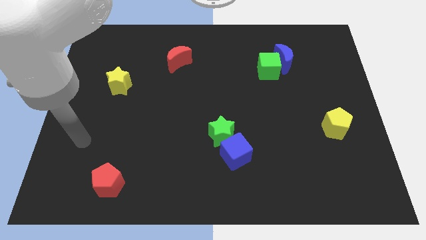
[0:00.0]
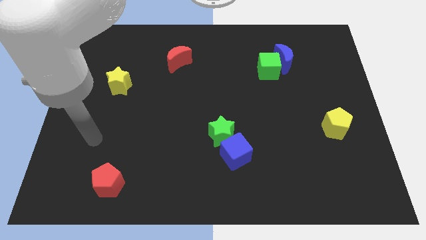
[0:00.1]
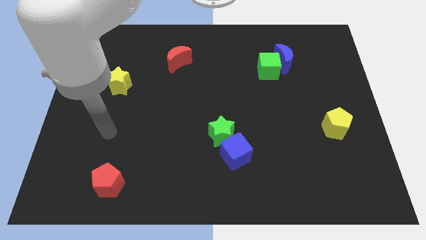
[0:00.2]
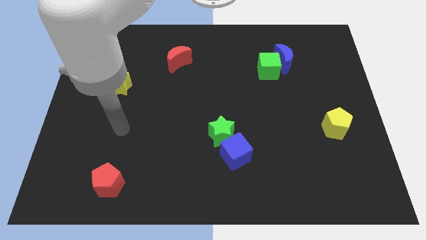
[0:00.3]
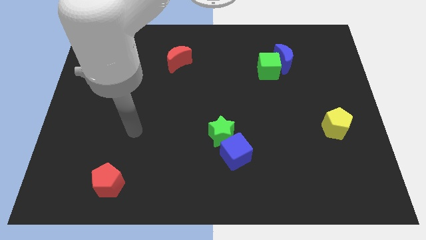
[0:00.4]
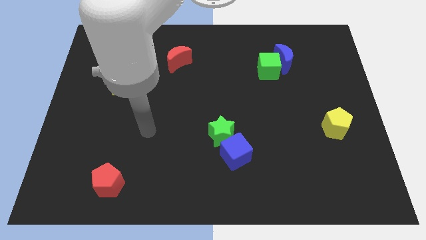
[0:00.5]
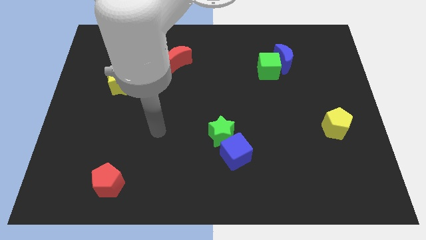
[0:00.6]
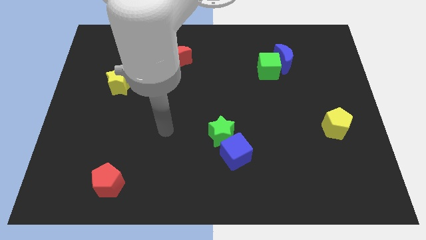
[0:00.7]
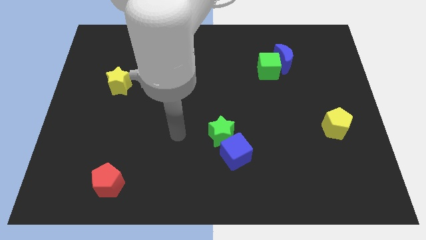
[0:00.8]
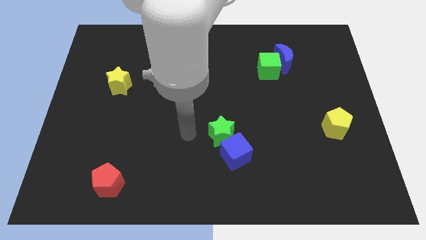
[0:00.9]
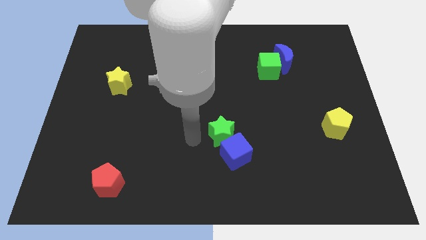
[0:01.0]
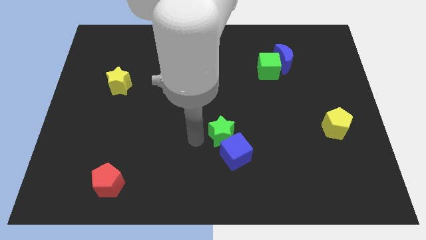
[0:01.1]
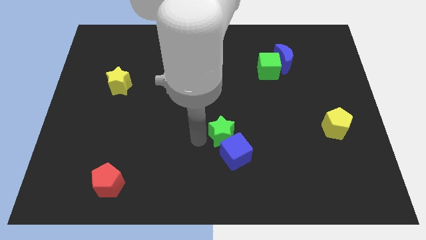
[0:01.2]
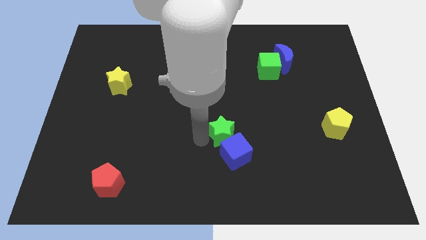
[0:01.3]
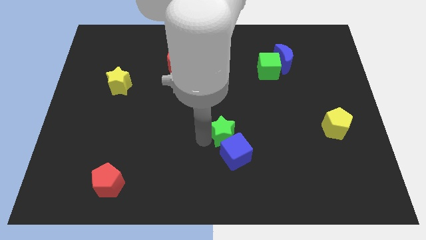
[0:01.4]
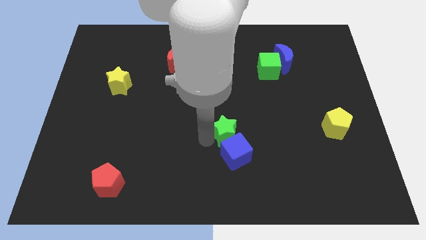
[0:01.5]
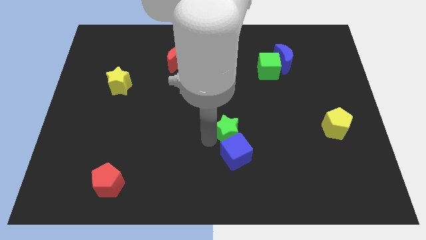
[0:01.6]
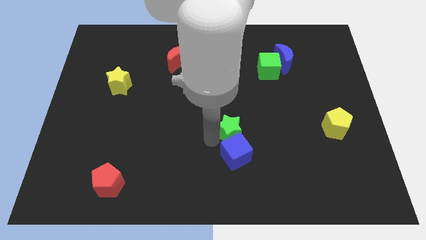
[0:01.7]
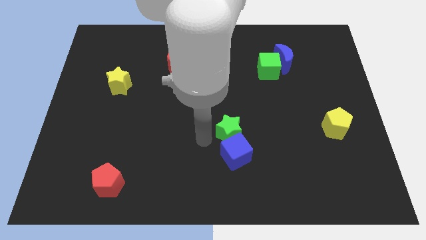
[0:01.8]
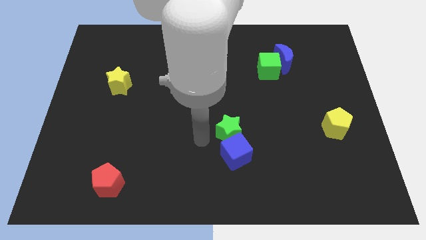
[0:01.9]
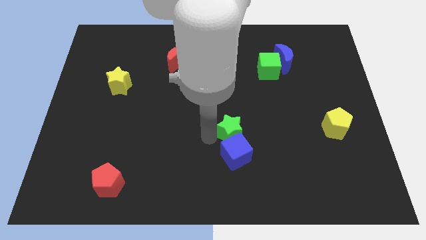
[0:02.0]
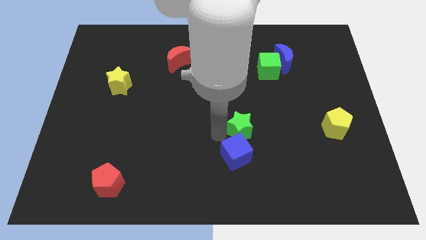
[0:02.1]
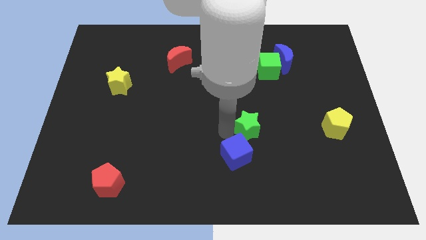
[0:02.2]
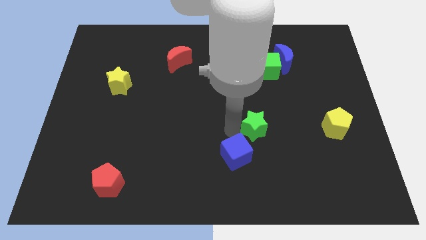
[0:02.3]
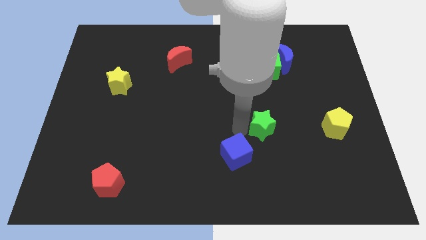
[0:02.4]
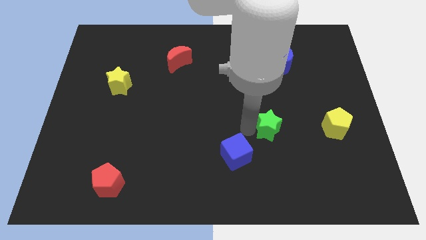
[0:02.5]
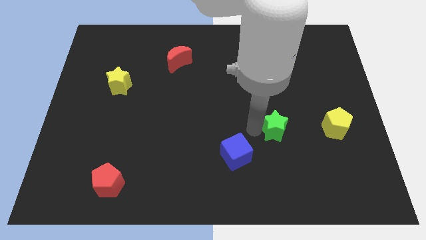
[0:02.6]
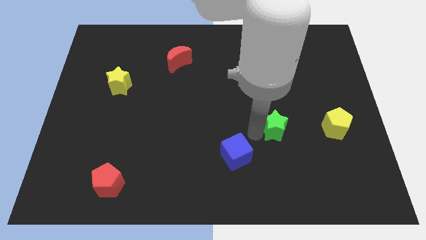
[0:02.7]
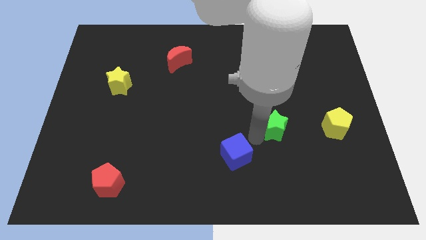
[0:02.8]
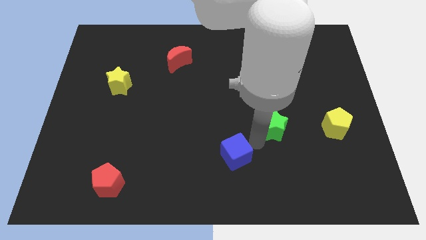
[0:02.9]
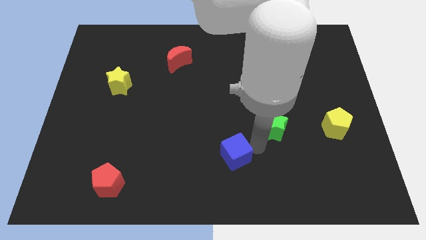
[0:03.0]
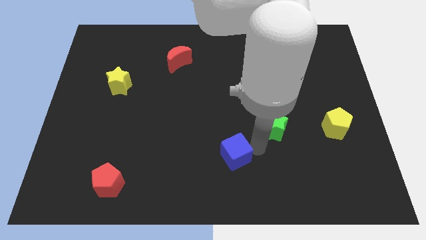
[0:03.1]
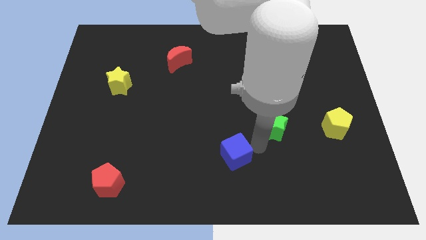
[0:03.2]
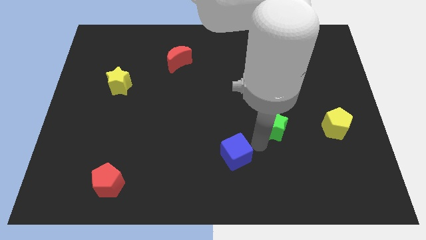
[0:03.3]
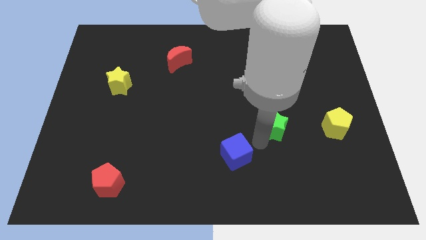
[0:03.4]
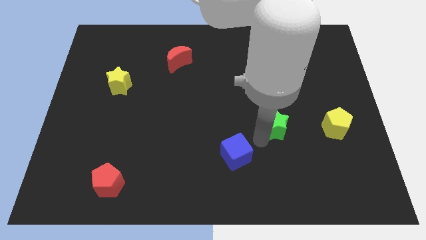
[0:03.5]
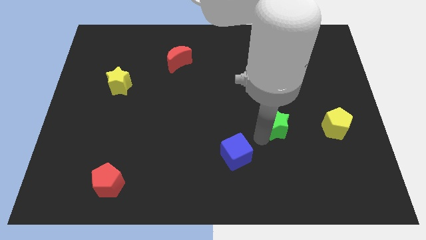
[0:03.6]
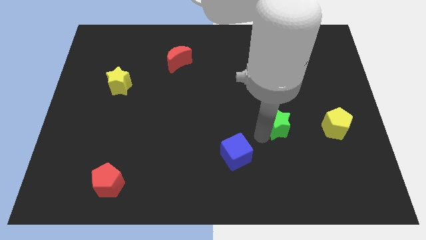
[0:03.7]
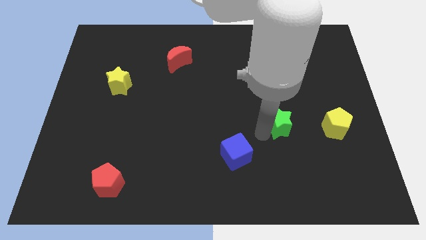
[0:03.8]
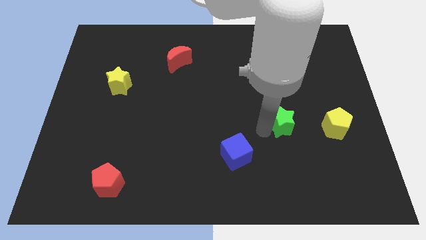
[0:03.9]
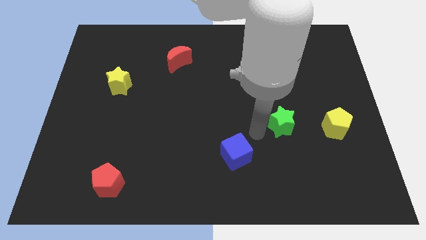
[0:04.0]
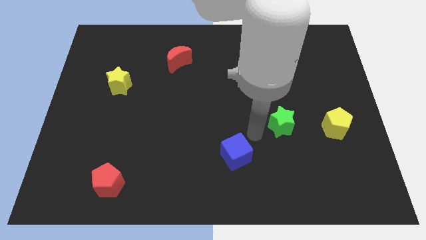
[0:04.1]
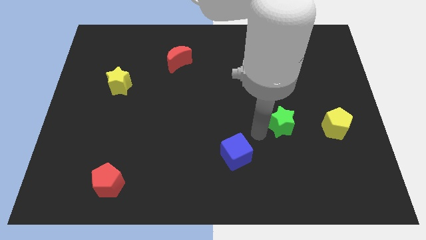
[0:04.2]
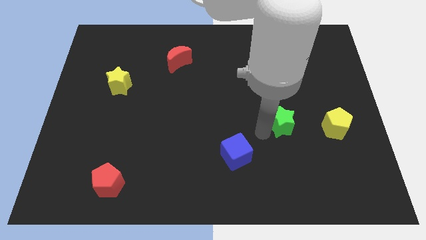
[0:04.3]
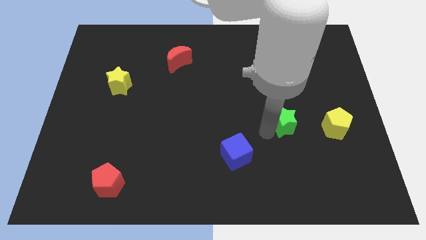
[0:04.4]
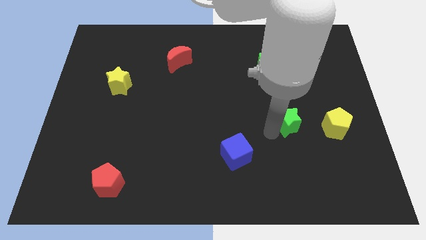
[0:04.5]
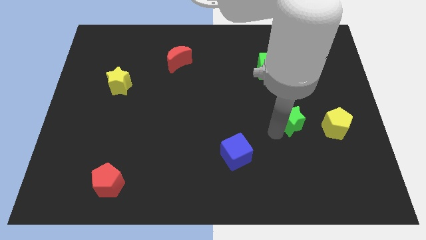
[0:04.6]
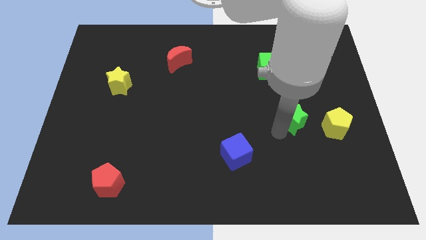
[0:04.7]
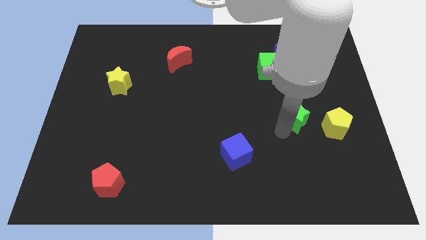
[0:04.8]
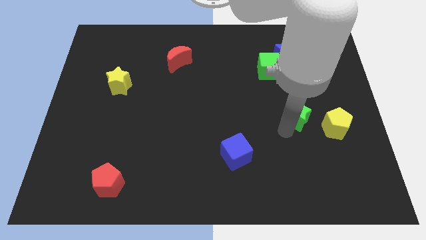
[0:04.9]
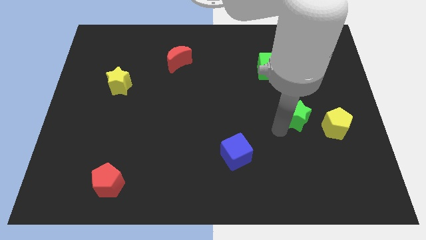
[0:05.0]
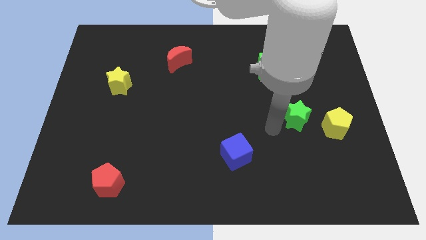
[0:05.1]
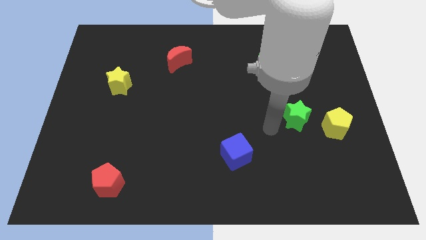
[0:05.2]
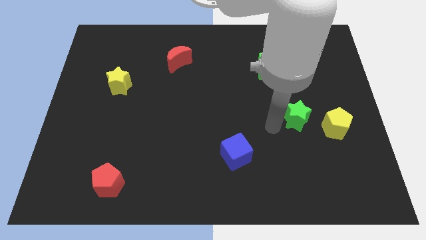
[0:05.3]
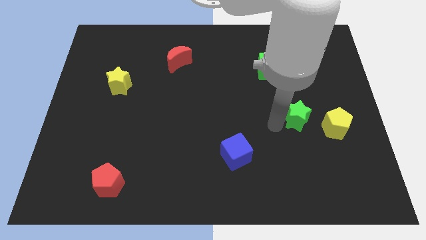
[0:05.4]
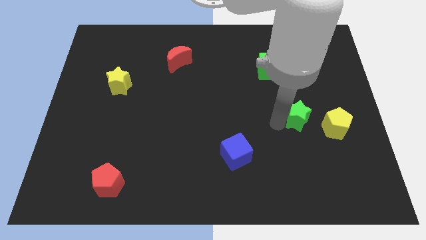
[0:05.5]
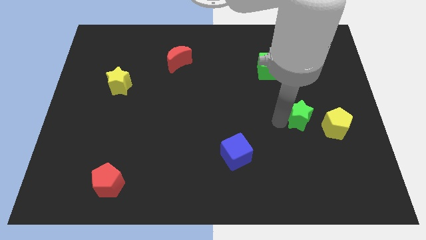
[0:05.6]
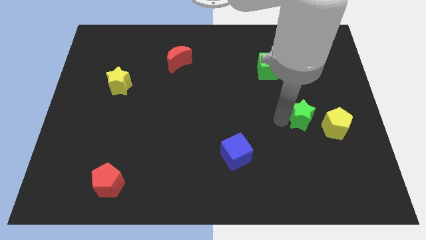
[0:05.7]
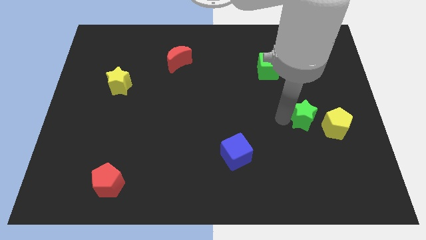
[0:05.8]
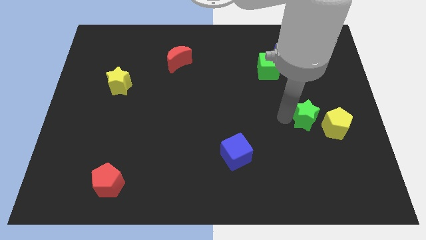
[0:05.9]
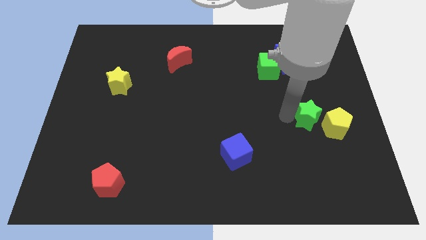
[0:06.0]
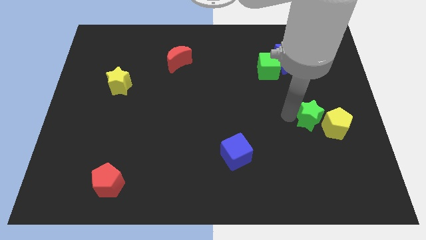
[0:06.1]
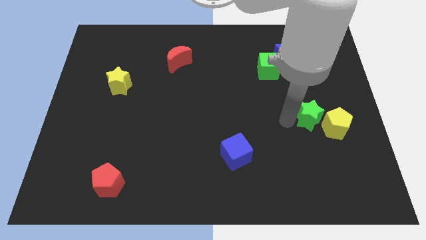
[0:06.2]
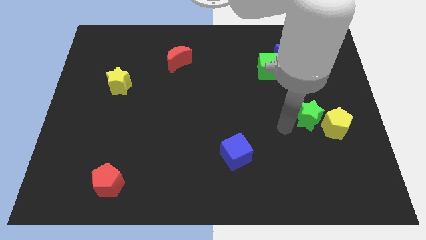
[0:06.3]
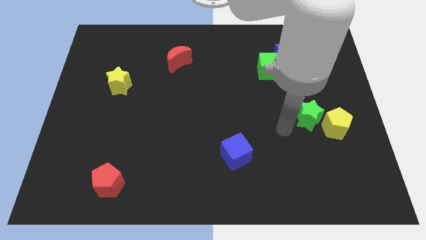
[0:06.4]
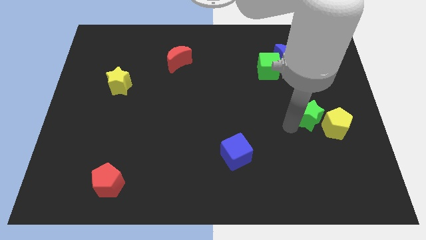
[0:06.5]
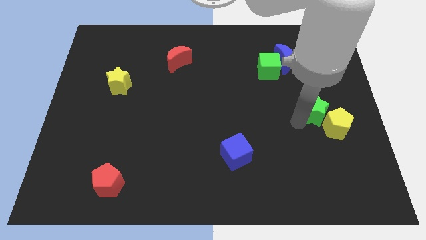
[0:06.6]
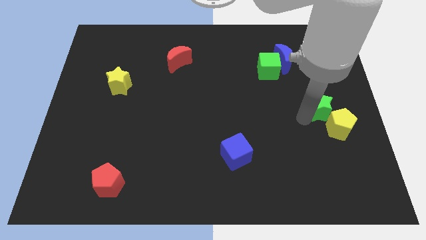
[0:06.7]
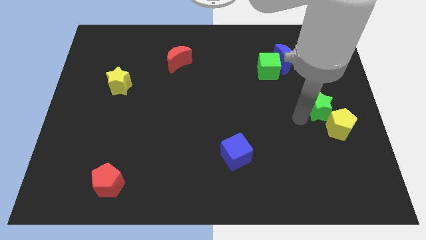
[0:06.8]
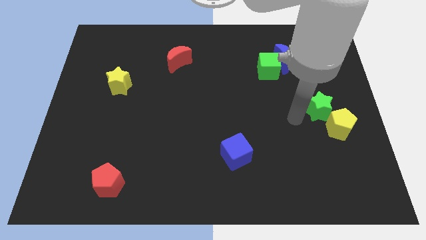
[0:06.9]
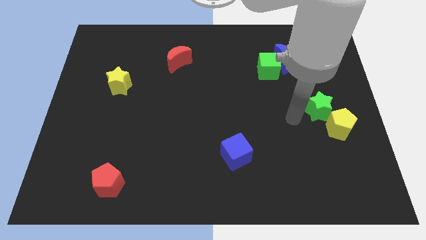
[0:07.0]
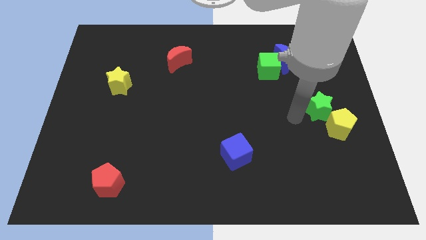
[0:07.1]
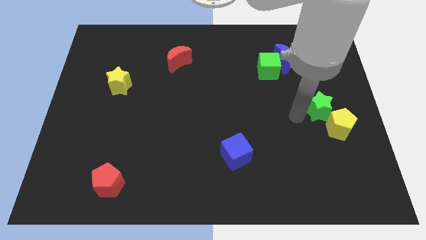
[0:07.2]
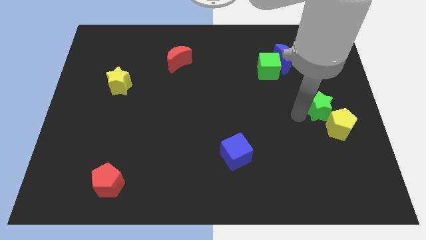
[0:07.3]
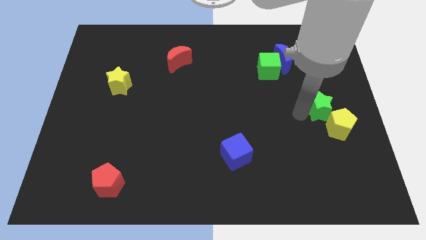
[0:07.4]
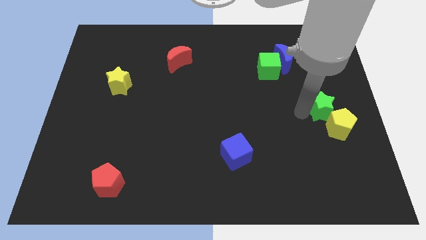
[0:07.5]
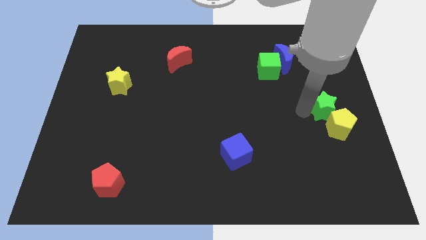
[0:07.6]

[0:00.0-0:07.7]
slide the green star to the right side
